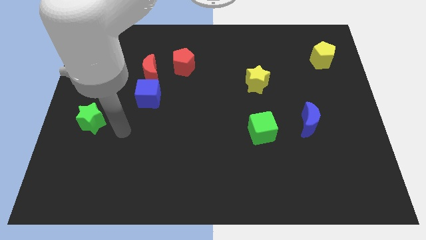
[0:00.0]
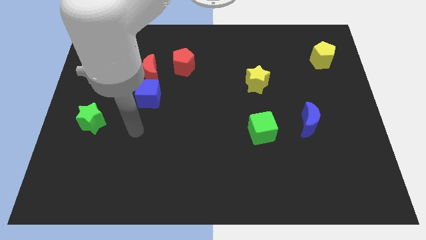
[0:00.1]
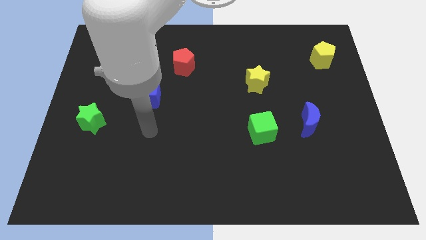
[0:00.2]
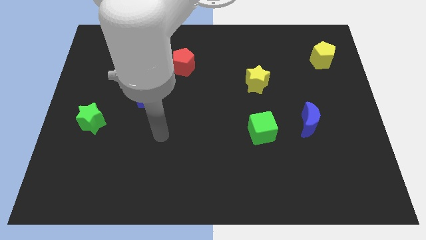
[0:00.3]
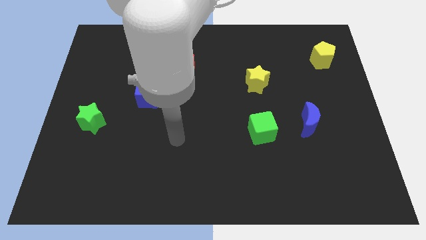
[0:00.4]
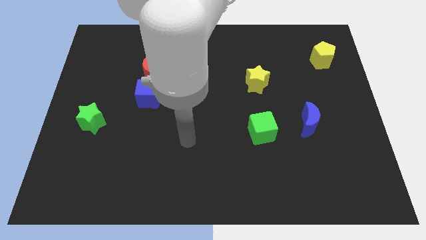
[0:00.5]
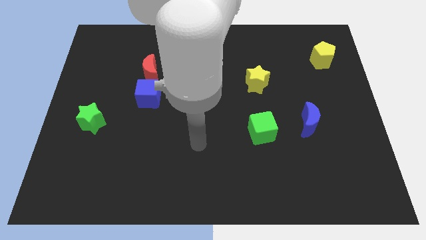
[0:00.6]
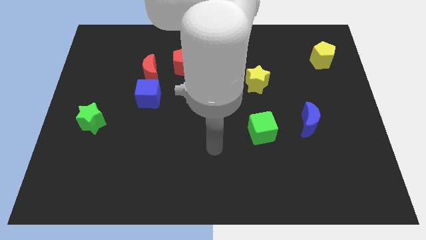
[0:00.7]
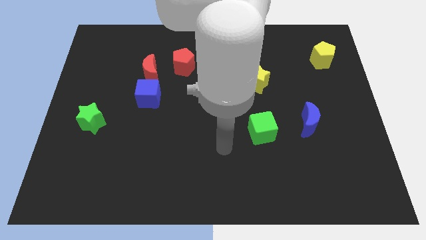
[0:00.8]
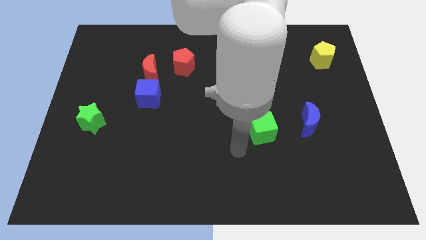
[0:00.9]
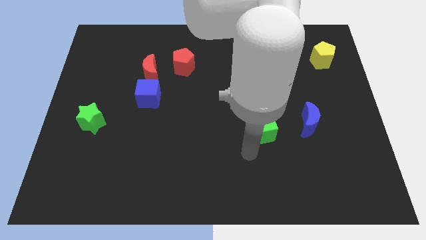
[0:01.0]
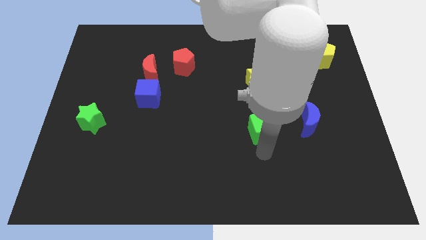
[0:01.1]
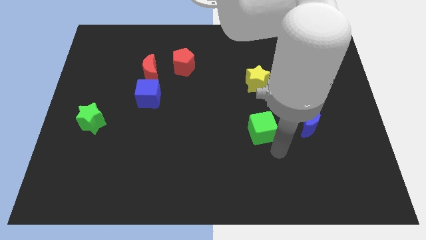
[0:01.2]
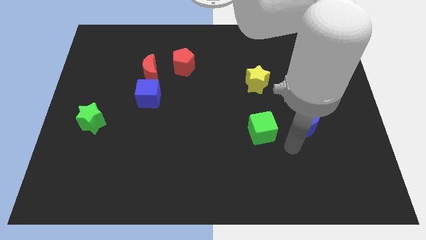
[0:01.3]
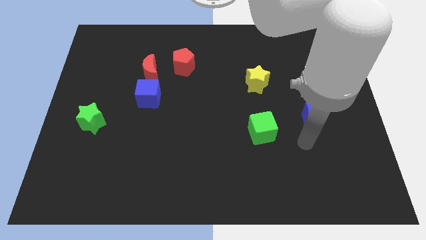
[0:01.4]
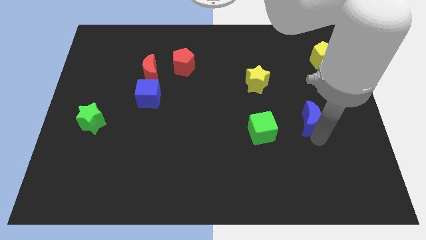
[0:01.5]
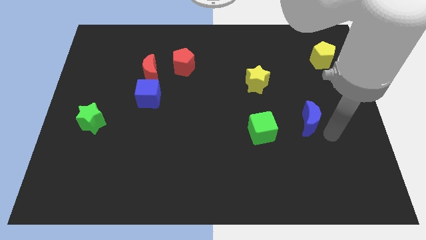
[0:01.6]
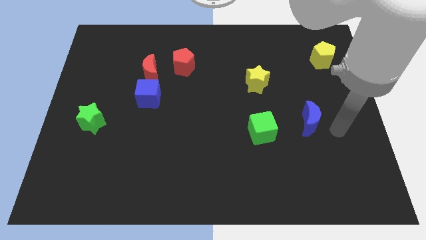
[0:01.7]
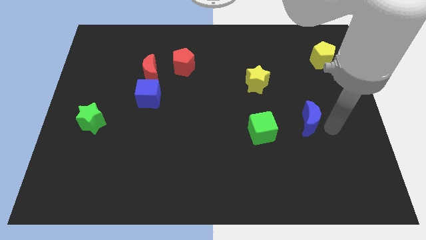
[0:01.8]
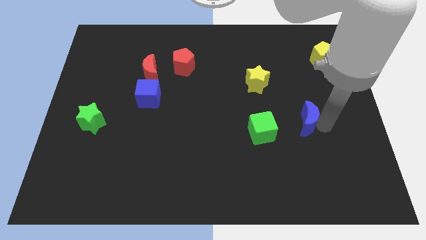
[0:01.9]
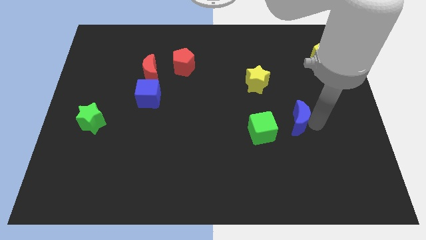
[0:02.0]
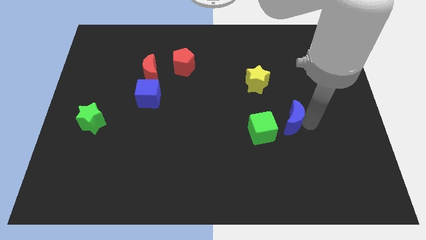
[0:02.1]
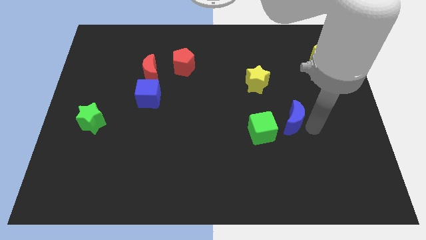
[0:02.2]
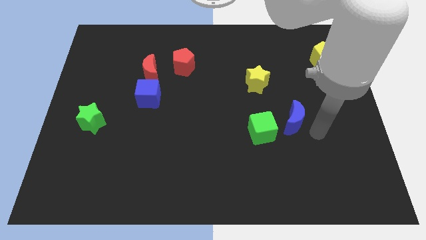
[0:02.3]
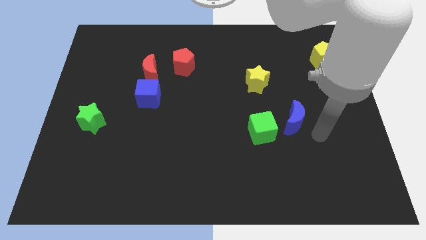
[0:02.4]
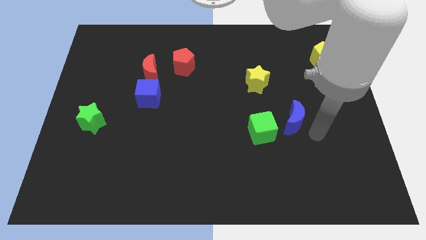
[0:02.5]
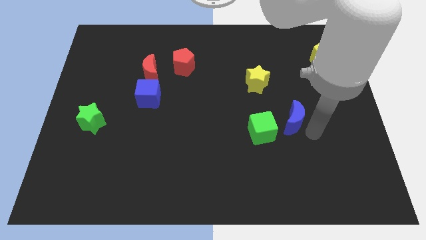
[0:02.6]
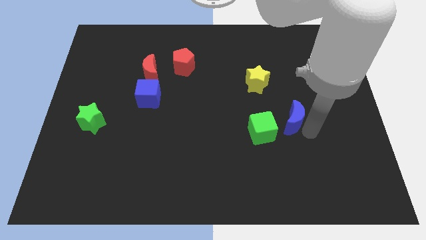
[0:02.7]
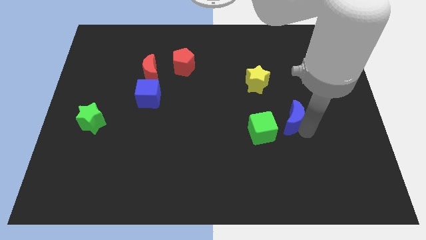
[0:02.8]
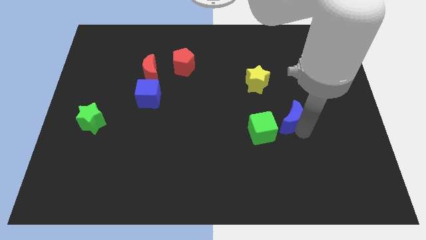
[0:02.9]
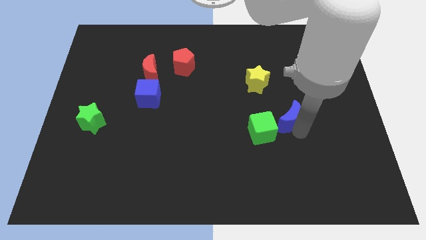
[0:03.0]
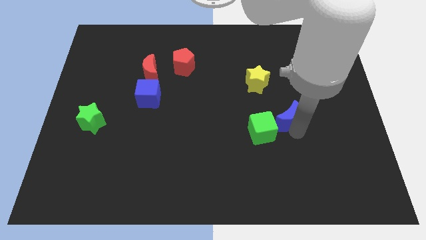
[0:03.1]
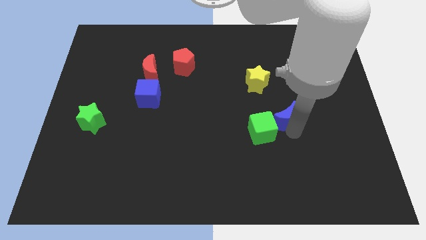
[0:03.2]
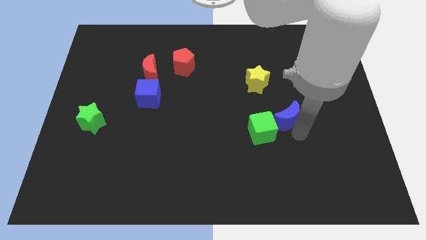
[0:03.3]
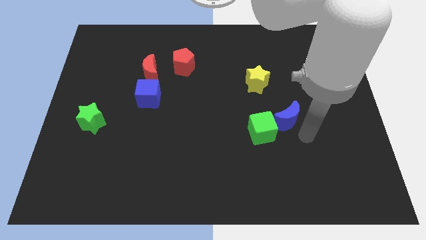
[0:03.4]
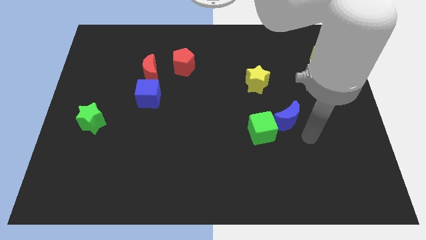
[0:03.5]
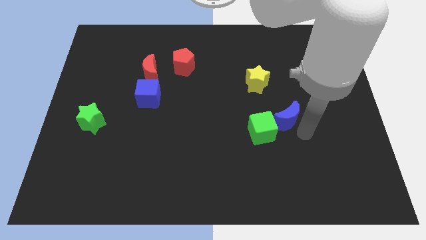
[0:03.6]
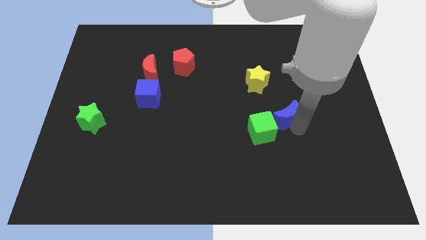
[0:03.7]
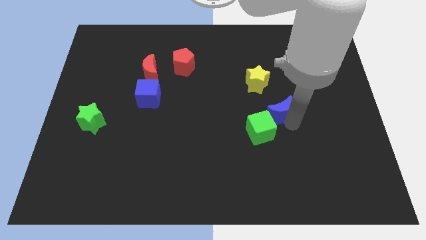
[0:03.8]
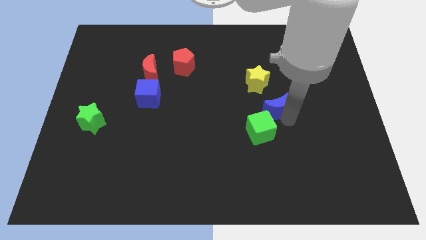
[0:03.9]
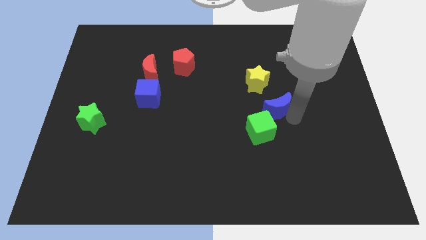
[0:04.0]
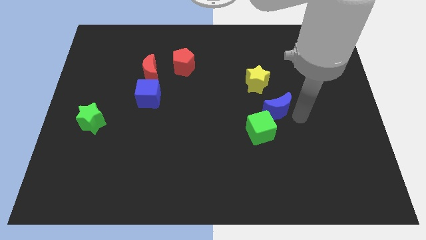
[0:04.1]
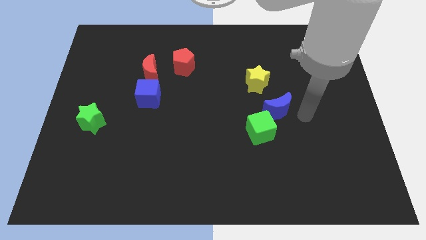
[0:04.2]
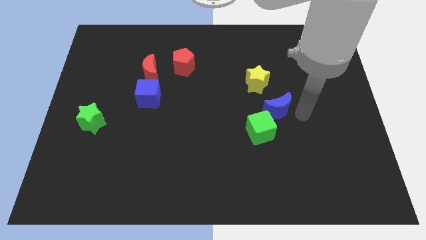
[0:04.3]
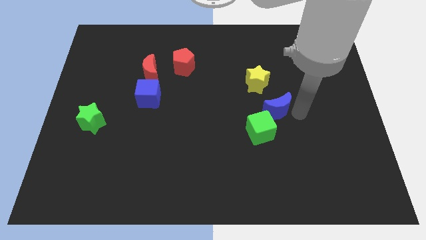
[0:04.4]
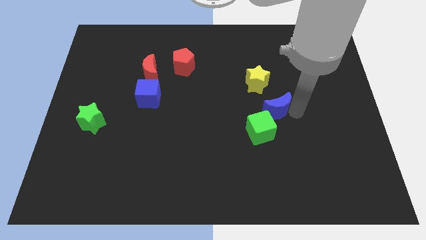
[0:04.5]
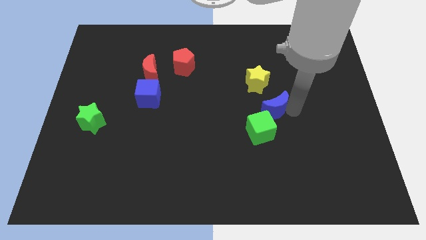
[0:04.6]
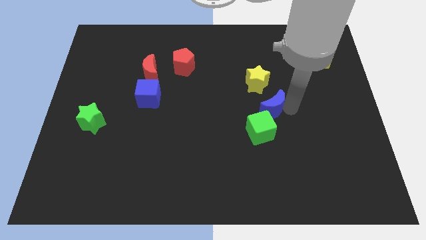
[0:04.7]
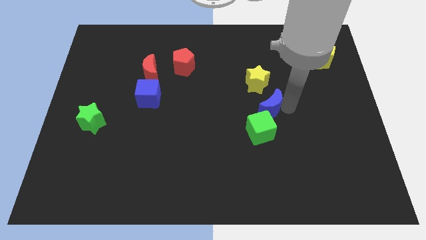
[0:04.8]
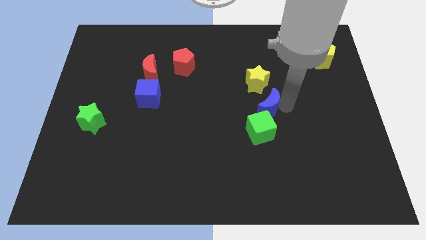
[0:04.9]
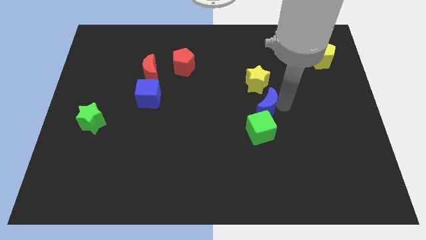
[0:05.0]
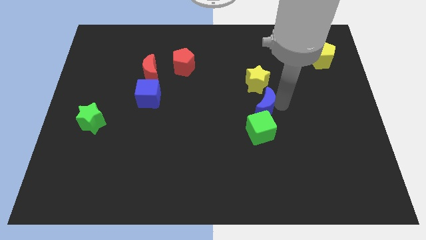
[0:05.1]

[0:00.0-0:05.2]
slide the blue moon to the center of the board
